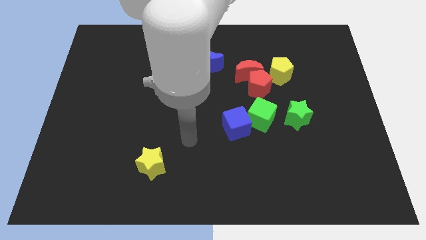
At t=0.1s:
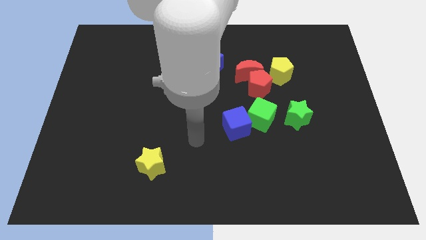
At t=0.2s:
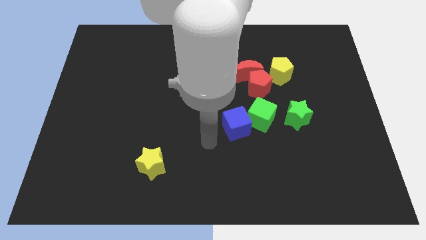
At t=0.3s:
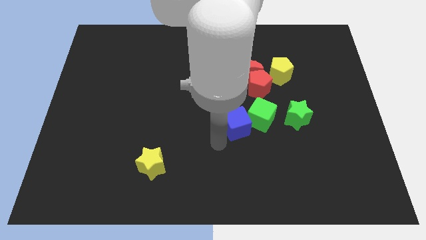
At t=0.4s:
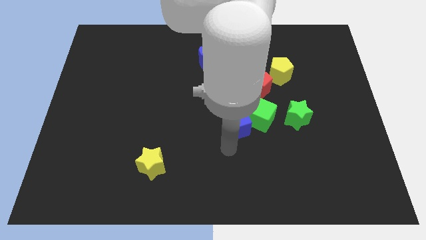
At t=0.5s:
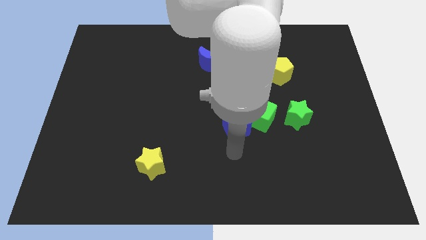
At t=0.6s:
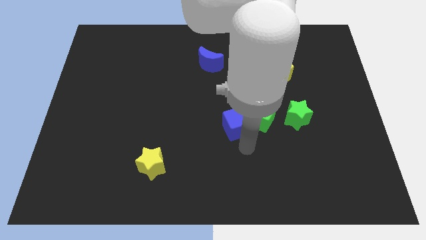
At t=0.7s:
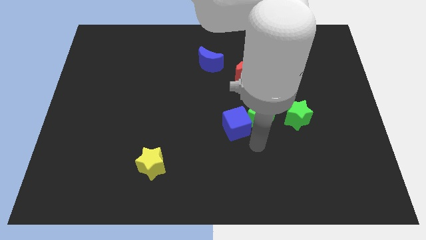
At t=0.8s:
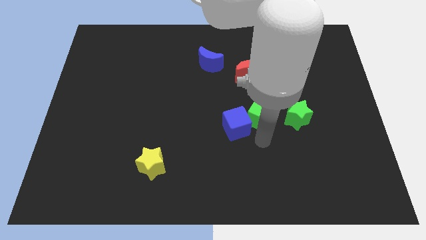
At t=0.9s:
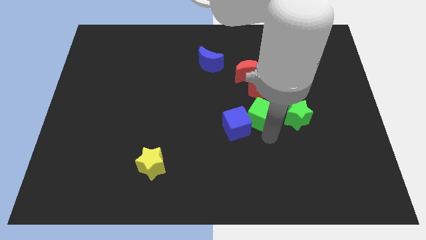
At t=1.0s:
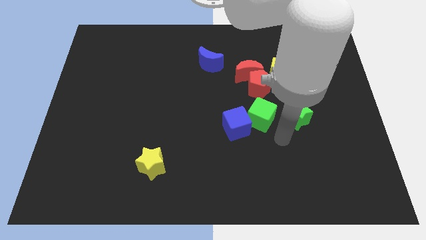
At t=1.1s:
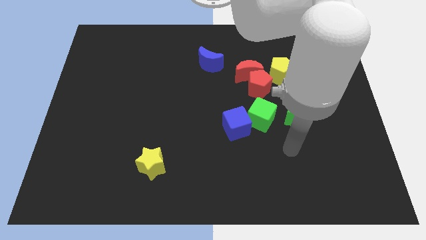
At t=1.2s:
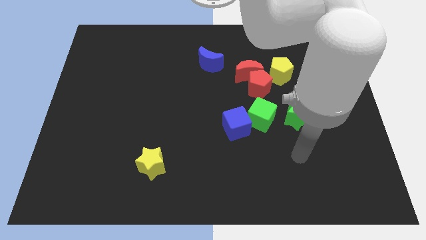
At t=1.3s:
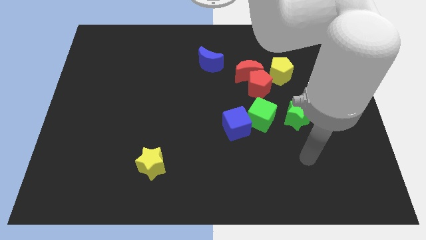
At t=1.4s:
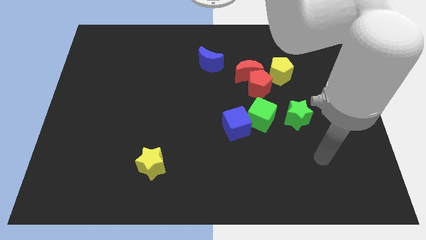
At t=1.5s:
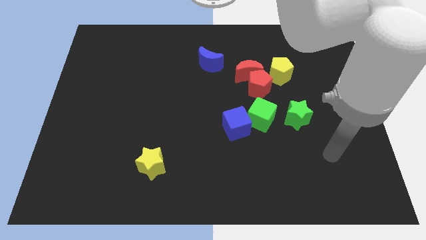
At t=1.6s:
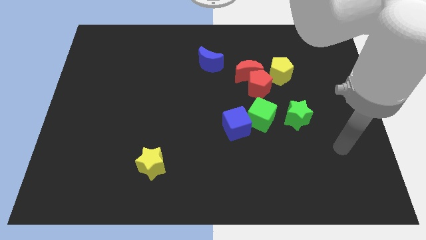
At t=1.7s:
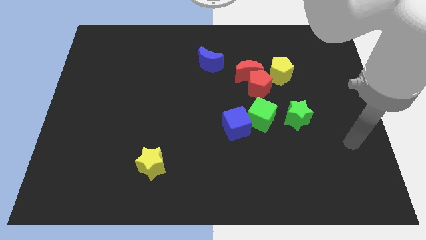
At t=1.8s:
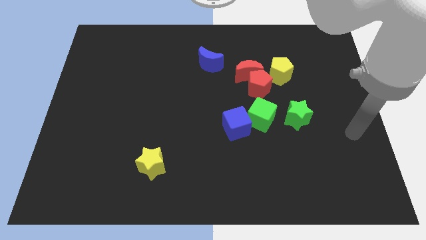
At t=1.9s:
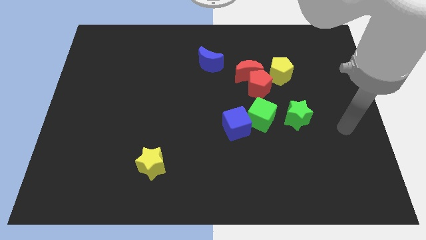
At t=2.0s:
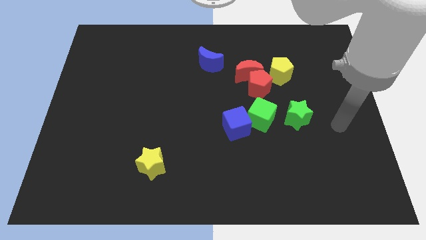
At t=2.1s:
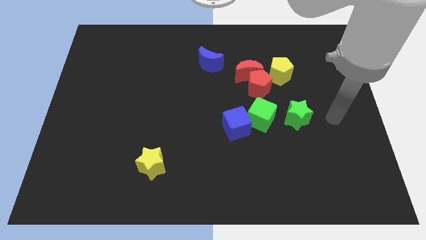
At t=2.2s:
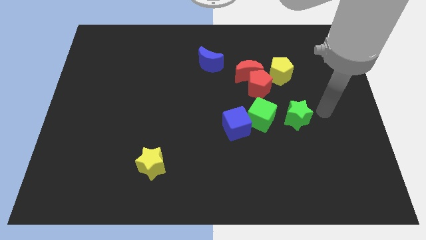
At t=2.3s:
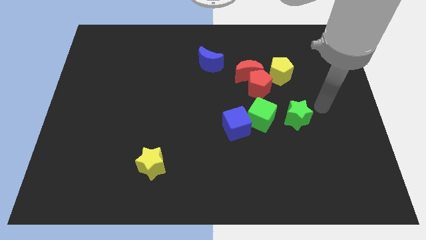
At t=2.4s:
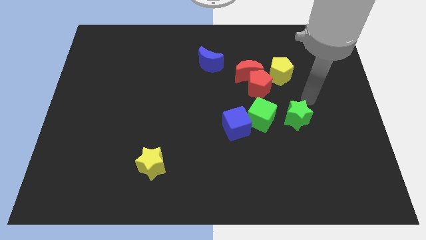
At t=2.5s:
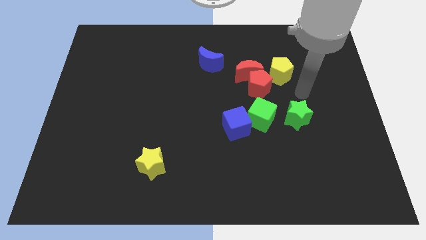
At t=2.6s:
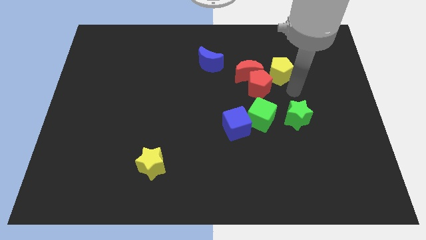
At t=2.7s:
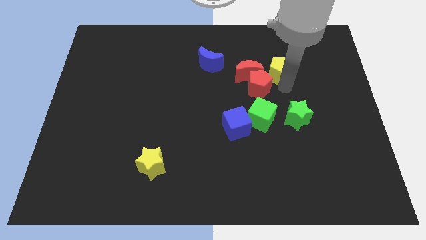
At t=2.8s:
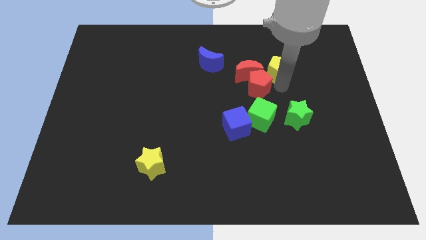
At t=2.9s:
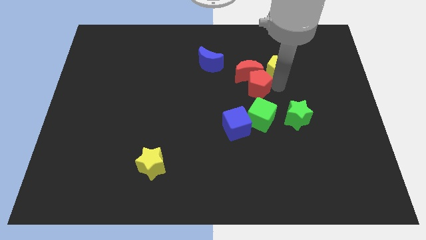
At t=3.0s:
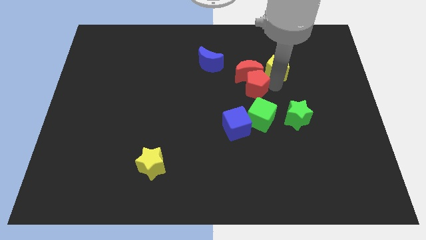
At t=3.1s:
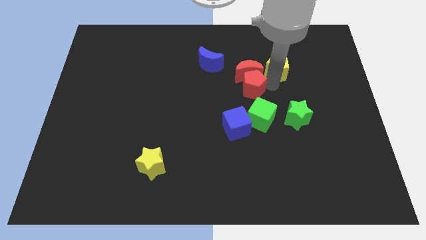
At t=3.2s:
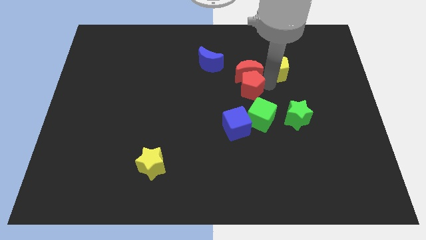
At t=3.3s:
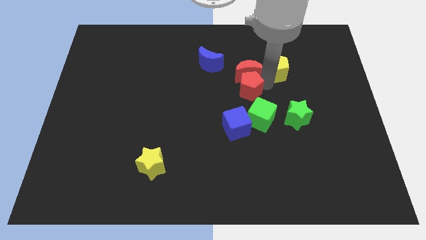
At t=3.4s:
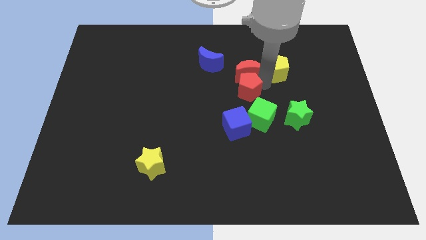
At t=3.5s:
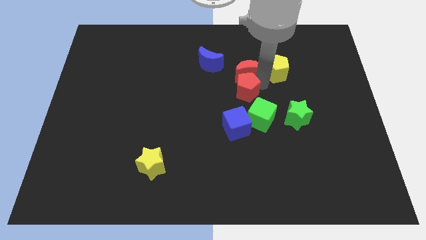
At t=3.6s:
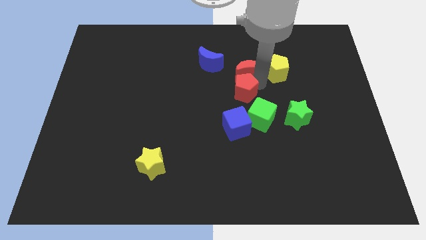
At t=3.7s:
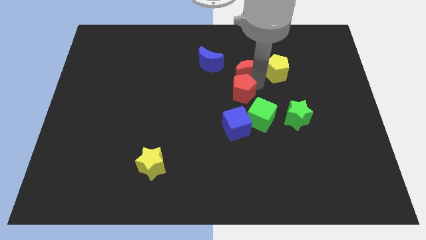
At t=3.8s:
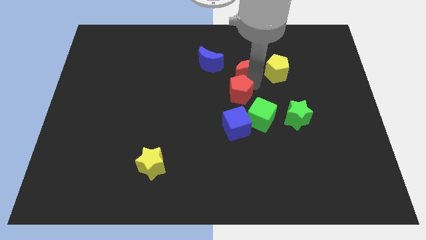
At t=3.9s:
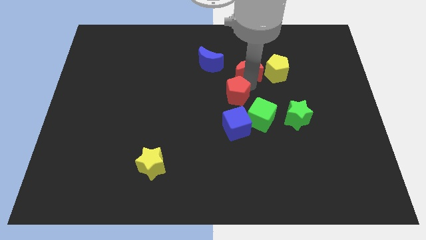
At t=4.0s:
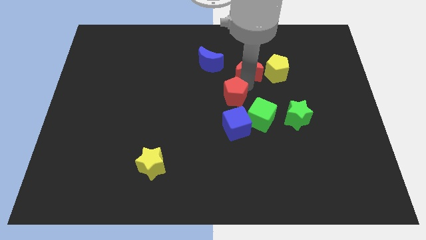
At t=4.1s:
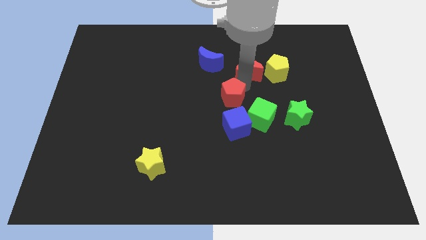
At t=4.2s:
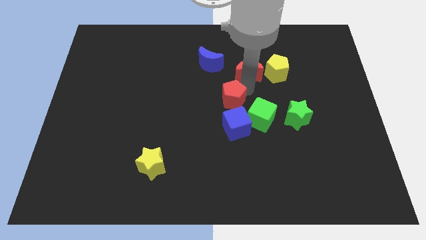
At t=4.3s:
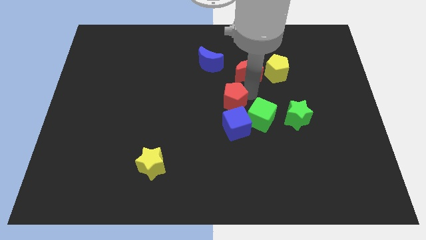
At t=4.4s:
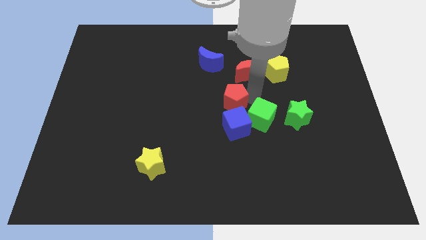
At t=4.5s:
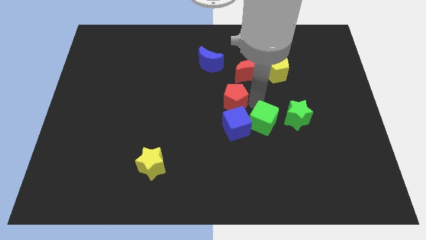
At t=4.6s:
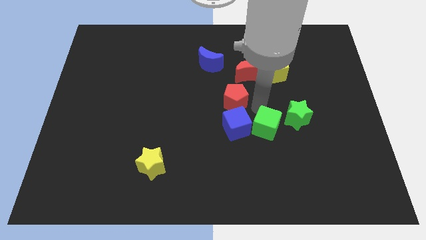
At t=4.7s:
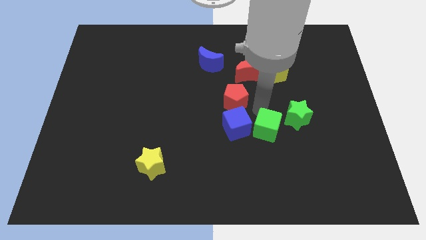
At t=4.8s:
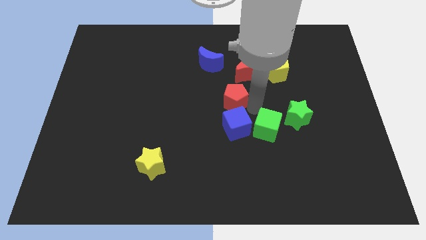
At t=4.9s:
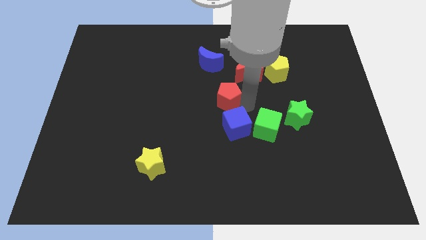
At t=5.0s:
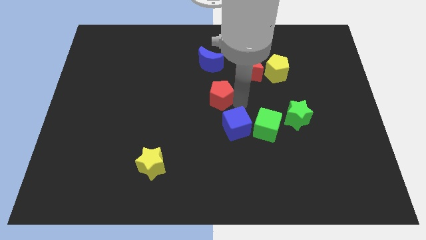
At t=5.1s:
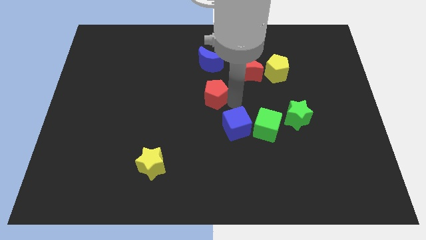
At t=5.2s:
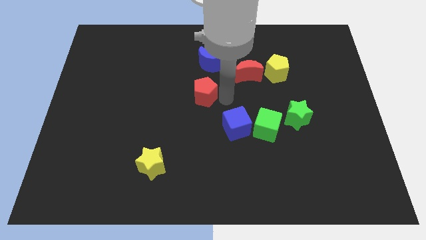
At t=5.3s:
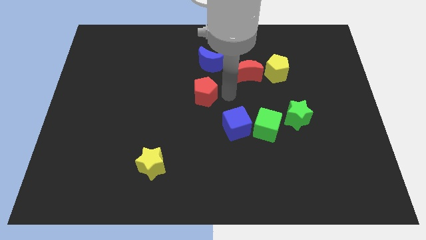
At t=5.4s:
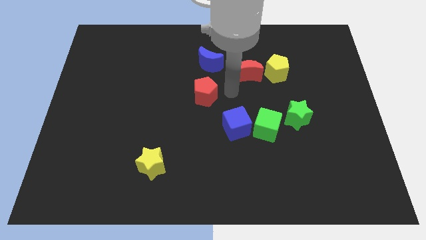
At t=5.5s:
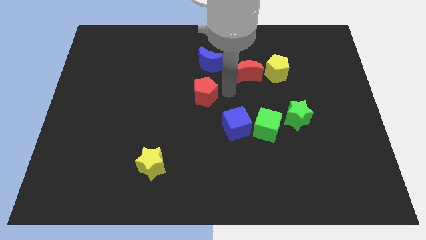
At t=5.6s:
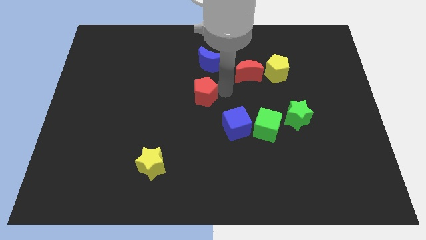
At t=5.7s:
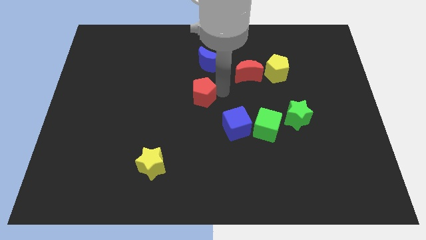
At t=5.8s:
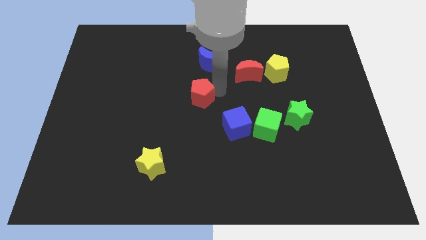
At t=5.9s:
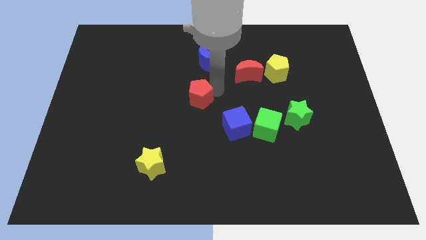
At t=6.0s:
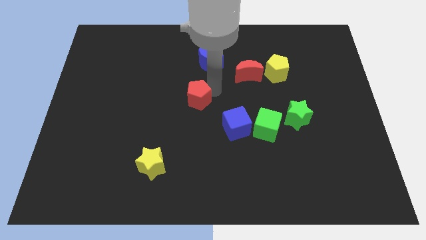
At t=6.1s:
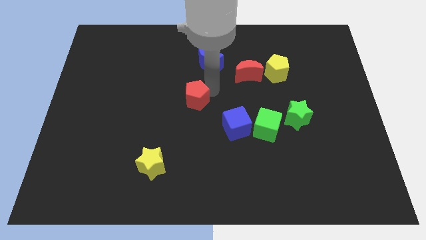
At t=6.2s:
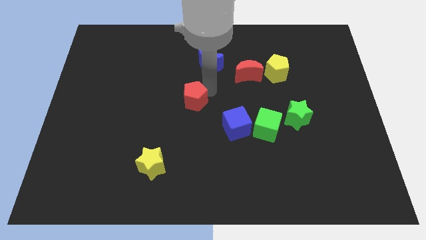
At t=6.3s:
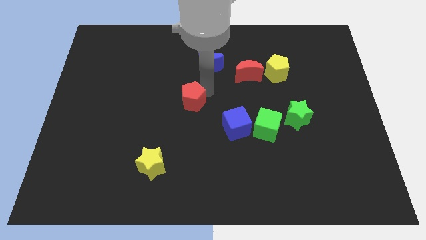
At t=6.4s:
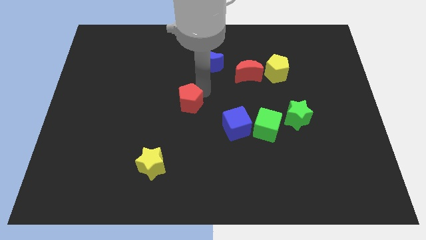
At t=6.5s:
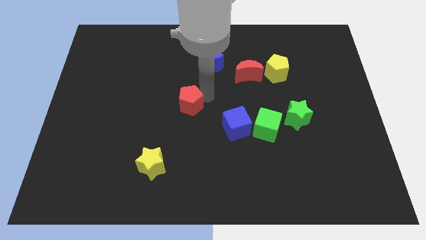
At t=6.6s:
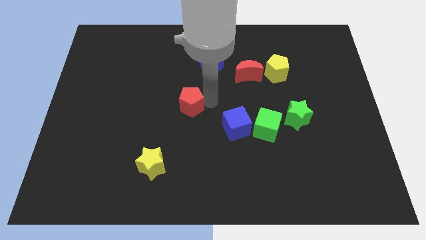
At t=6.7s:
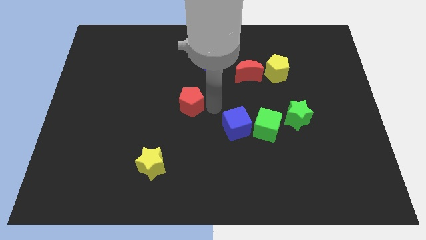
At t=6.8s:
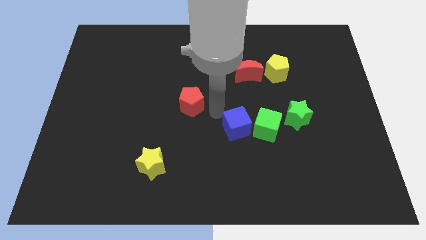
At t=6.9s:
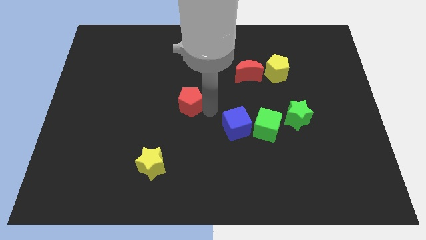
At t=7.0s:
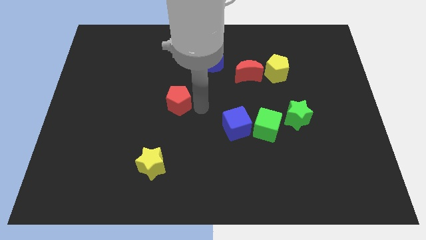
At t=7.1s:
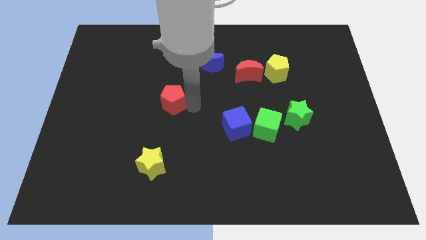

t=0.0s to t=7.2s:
move the red pentagon to the left

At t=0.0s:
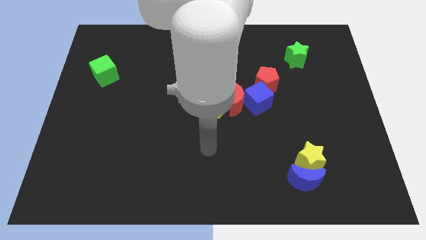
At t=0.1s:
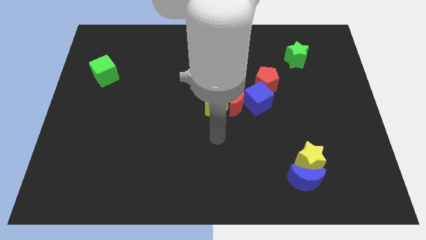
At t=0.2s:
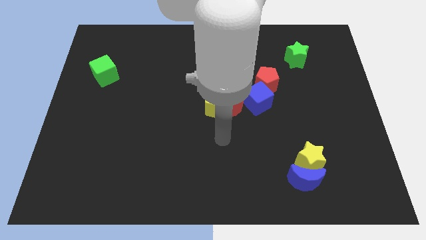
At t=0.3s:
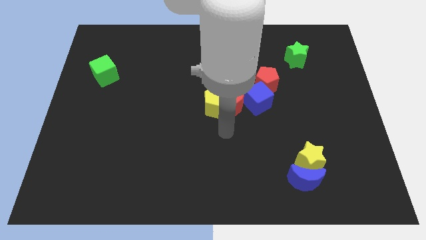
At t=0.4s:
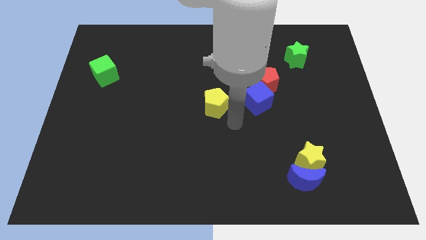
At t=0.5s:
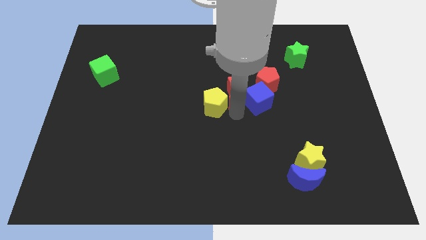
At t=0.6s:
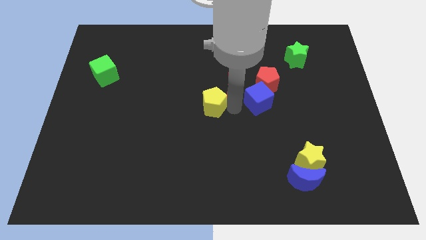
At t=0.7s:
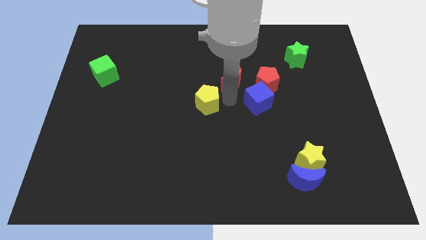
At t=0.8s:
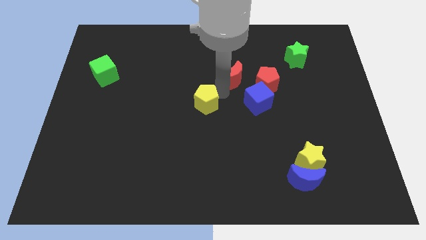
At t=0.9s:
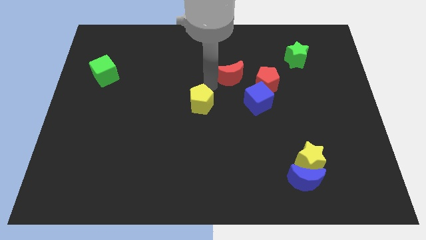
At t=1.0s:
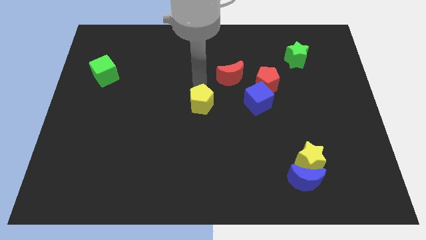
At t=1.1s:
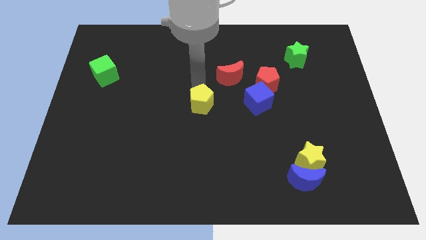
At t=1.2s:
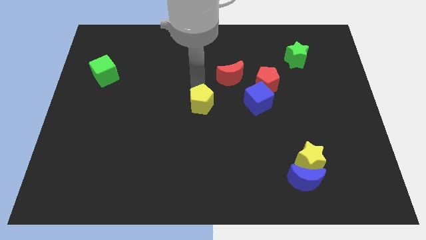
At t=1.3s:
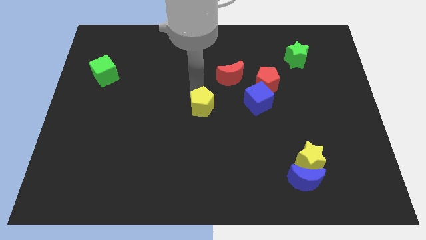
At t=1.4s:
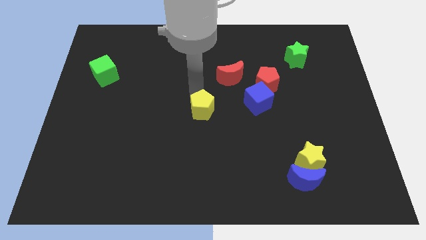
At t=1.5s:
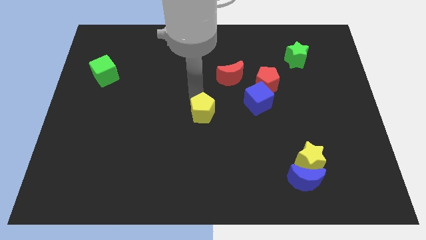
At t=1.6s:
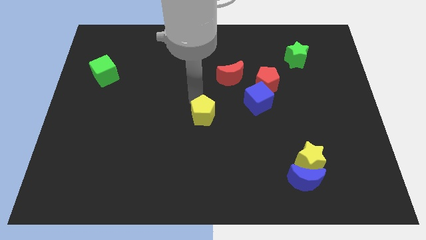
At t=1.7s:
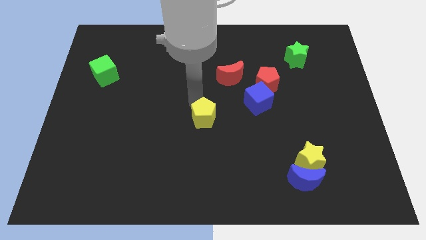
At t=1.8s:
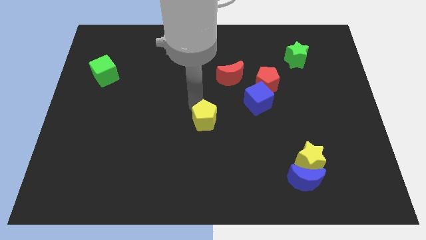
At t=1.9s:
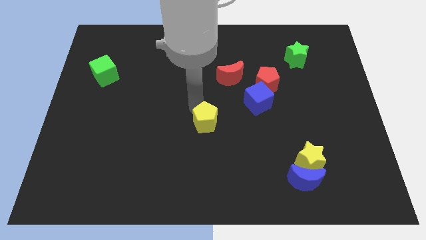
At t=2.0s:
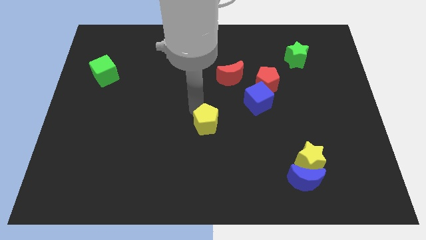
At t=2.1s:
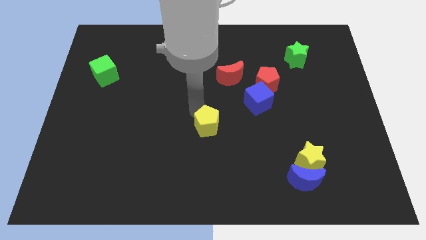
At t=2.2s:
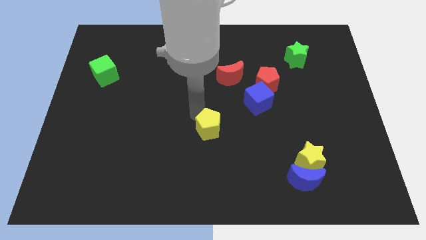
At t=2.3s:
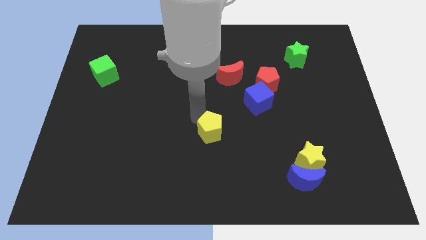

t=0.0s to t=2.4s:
slide the yellow pentagon a bit down
